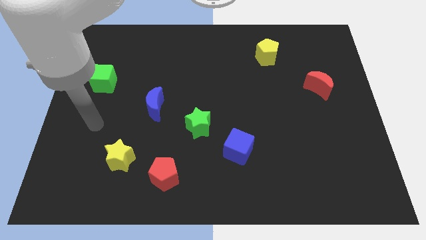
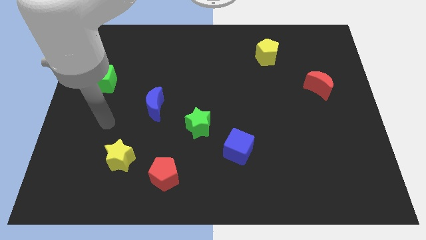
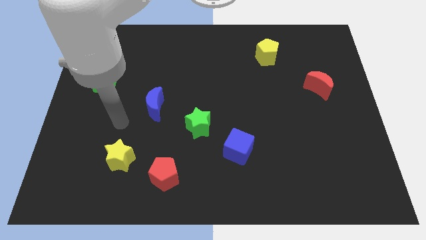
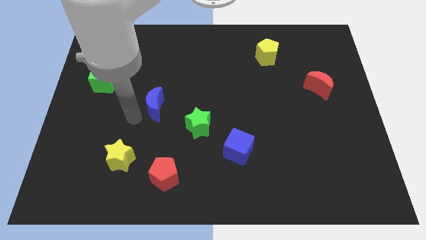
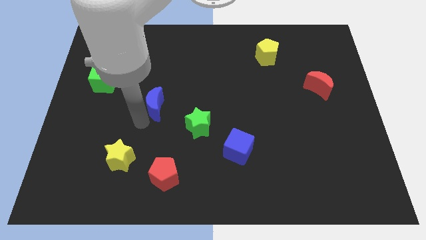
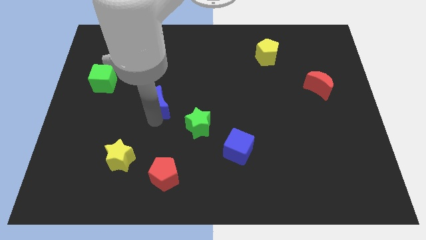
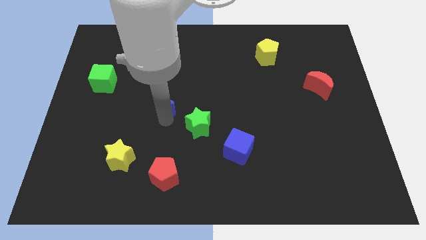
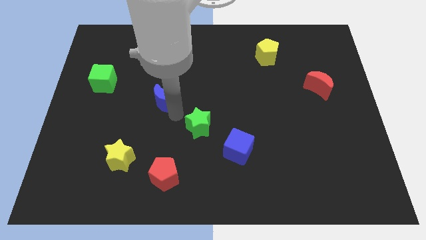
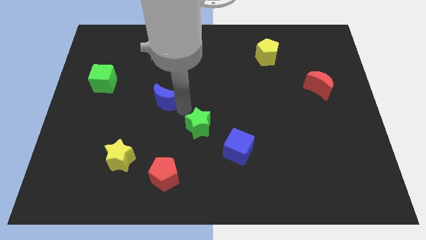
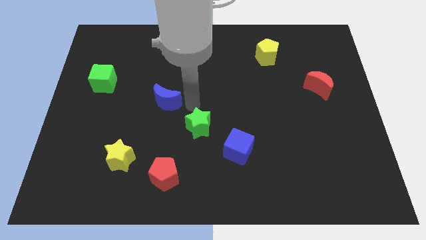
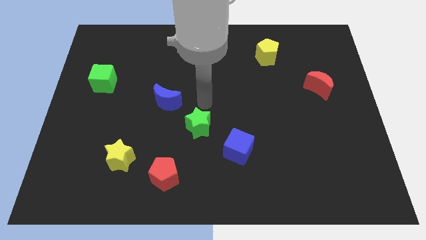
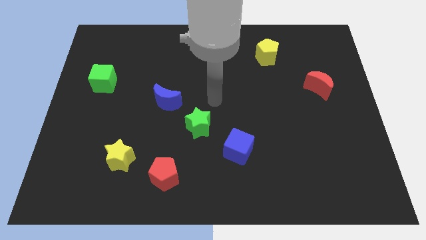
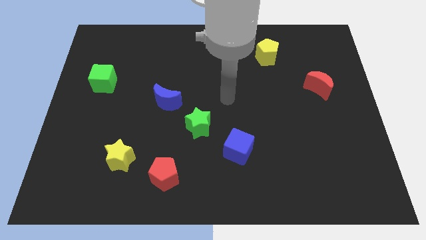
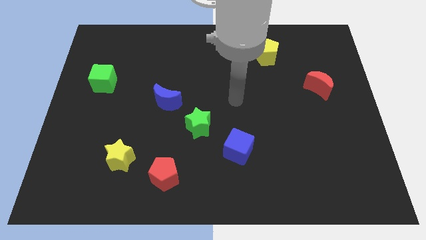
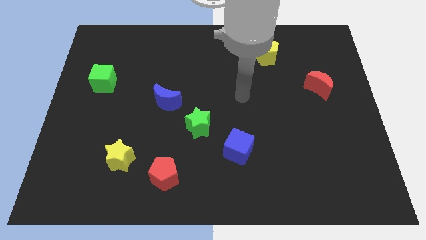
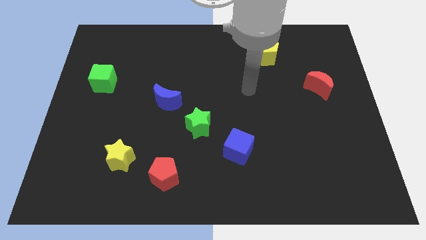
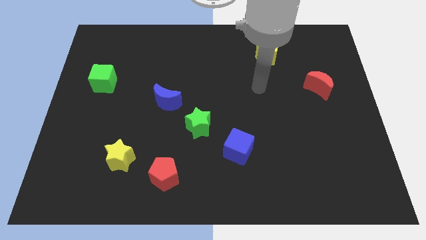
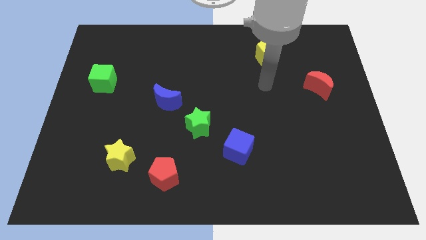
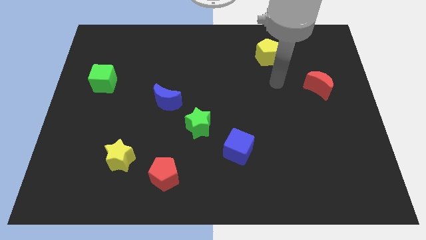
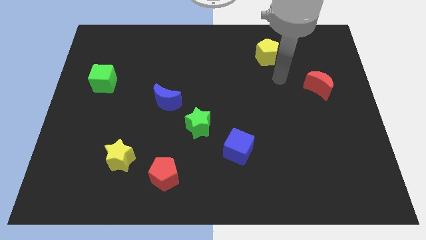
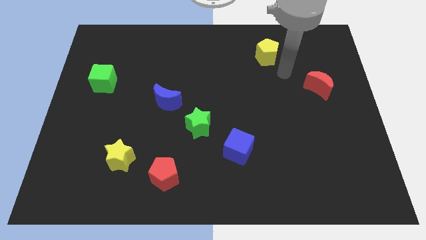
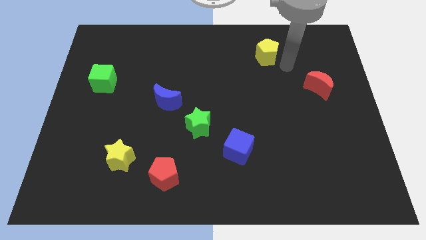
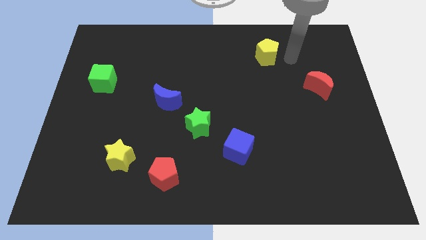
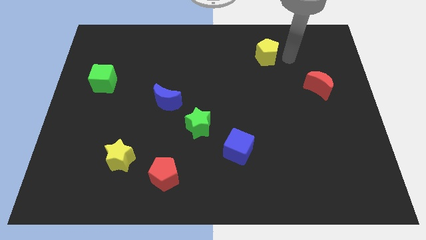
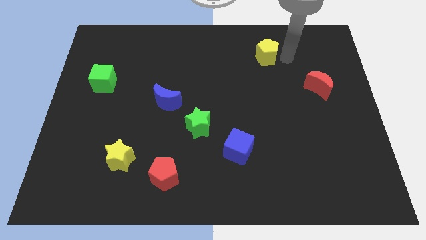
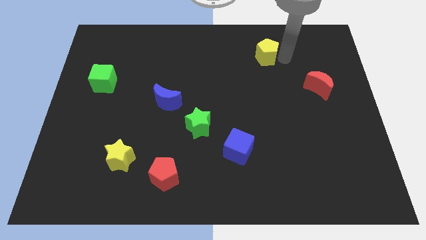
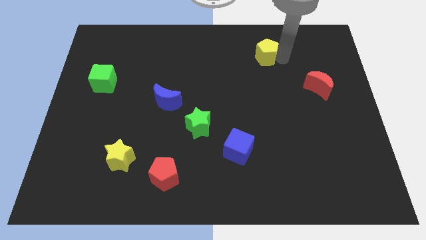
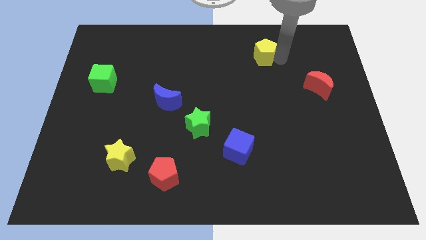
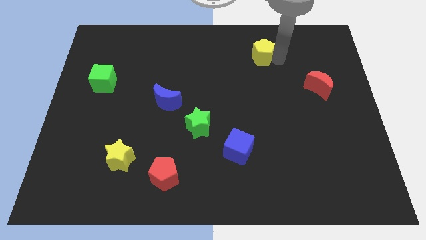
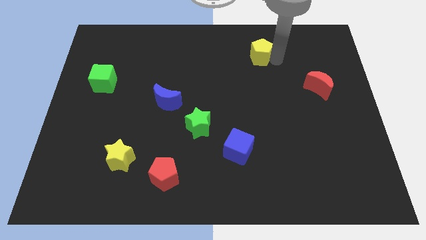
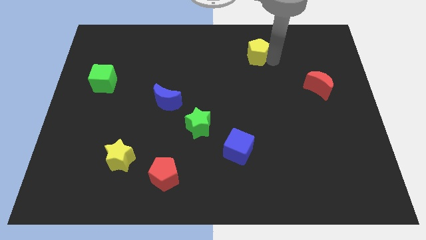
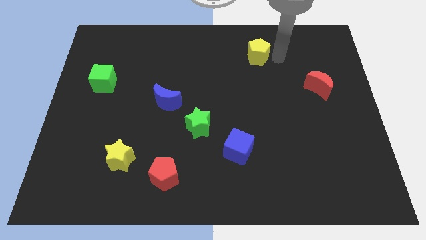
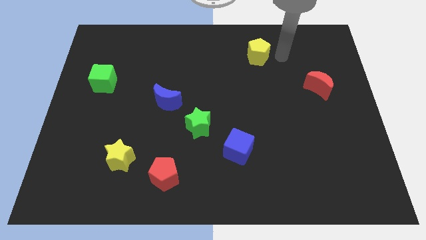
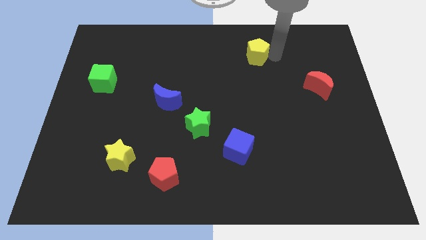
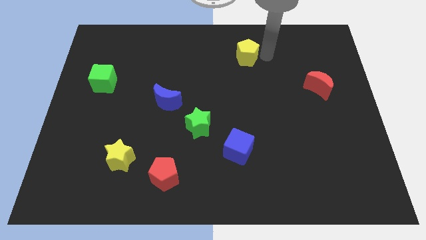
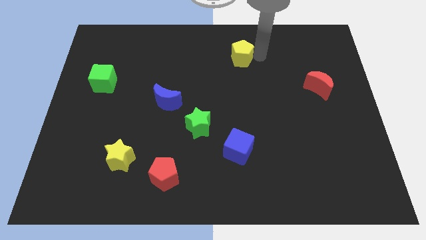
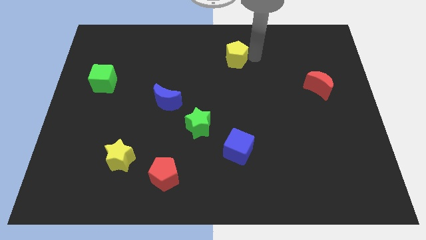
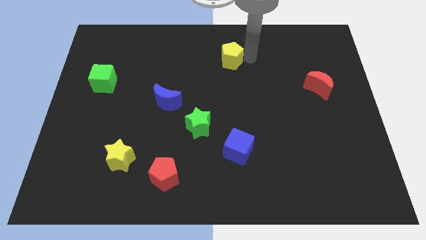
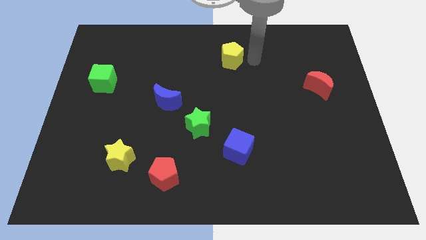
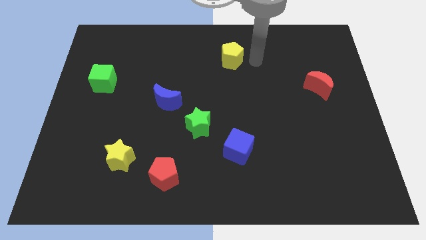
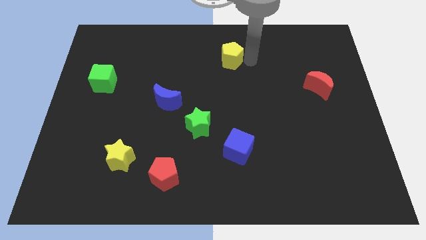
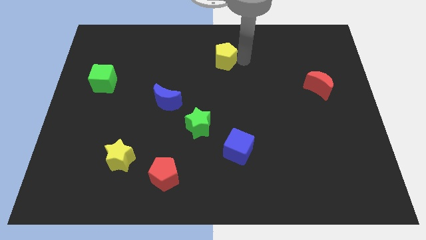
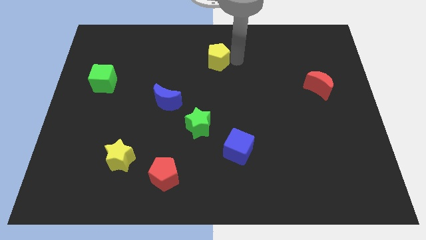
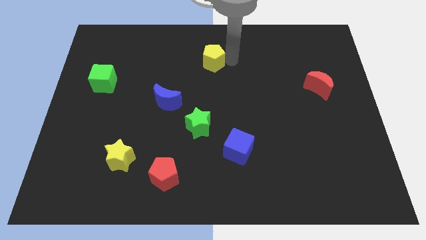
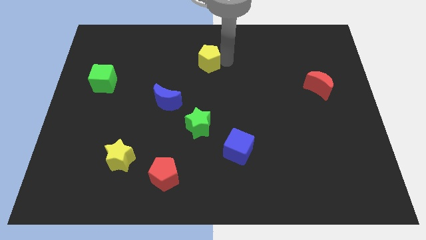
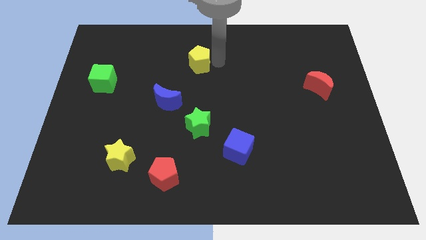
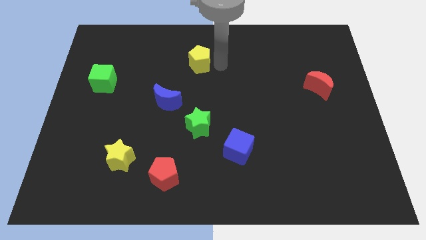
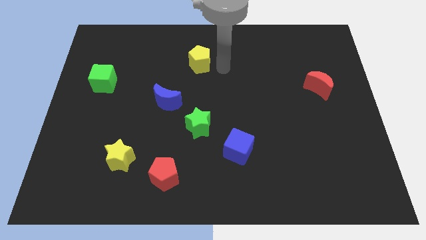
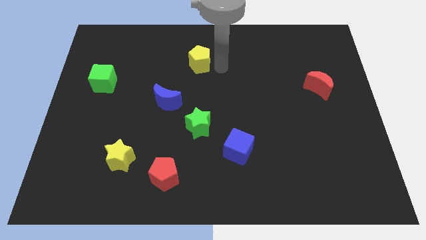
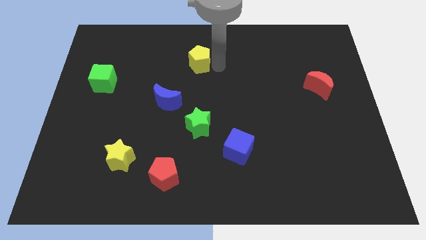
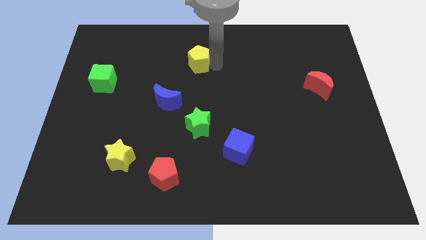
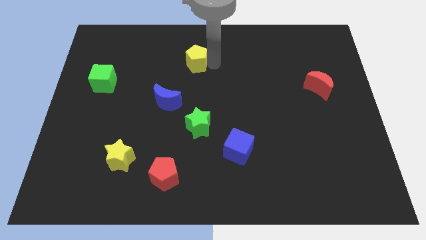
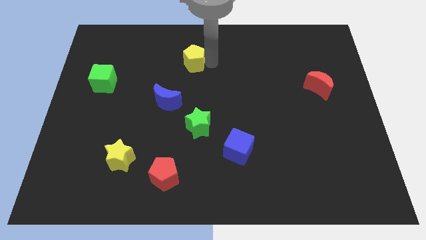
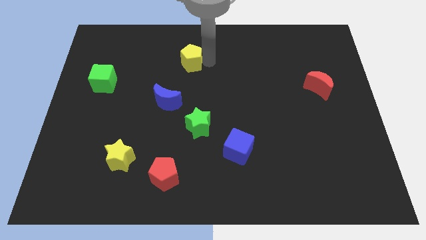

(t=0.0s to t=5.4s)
move the yellow pentagon left

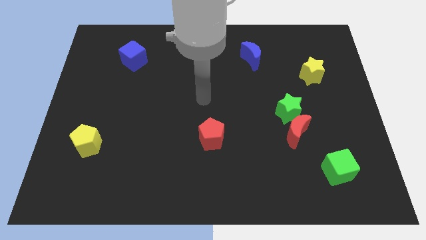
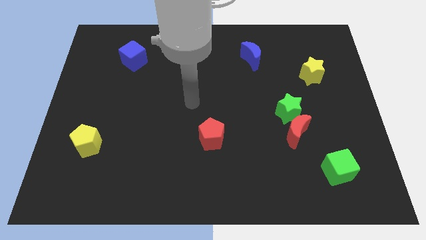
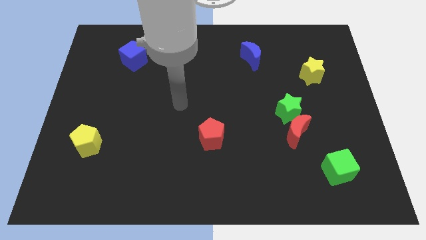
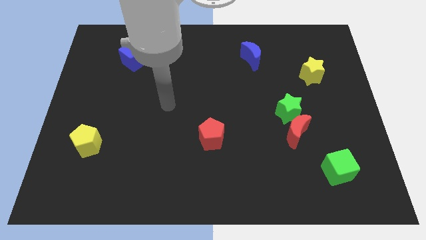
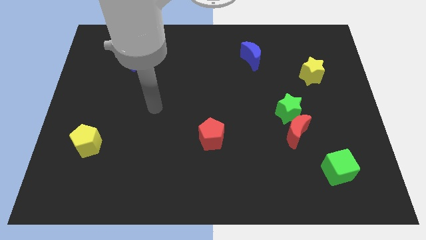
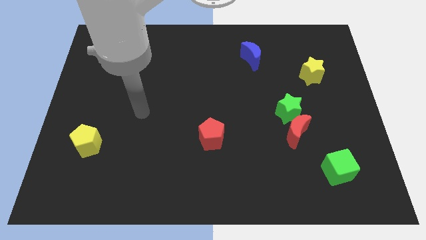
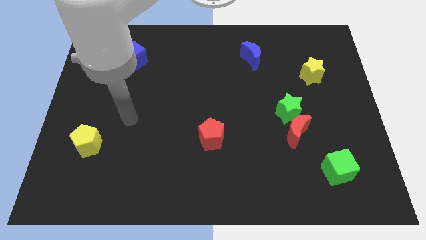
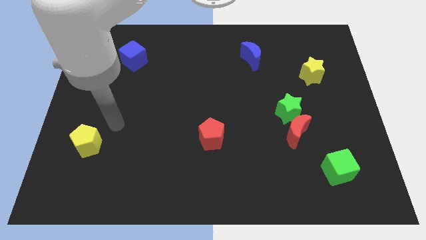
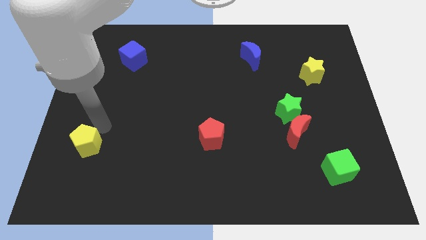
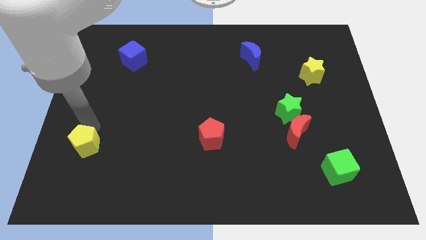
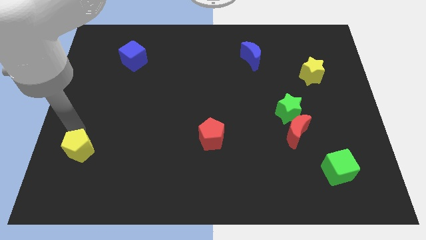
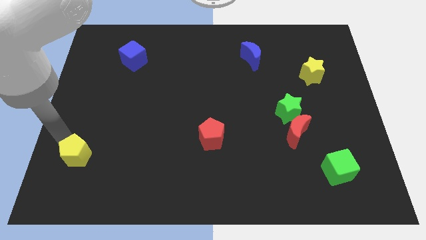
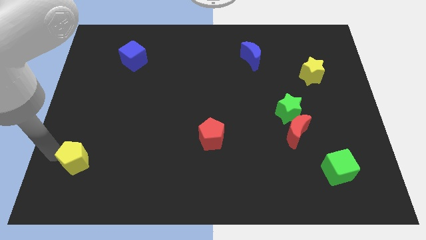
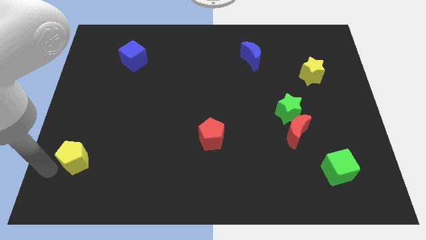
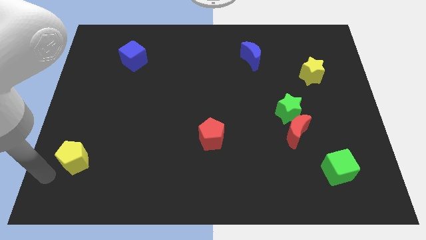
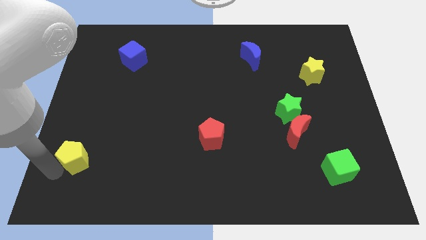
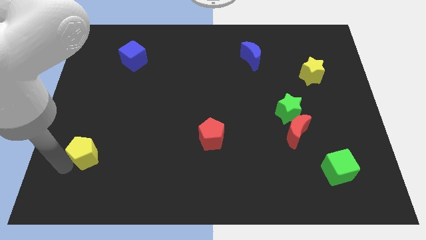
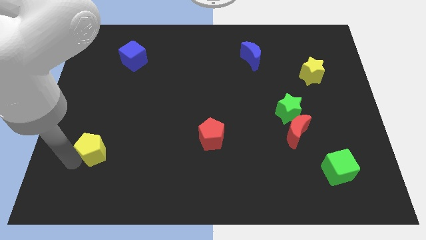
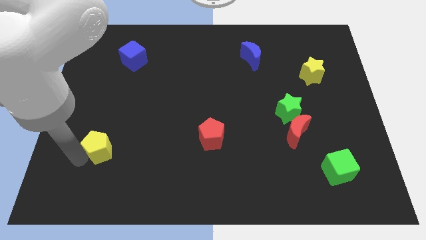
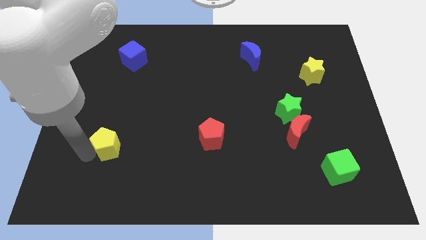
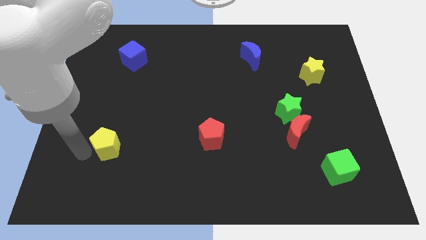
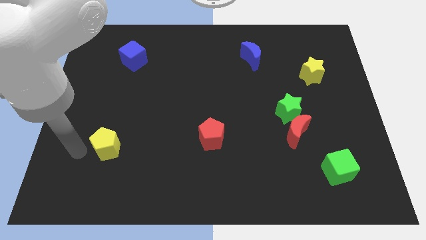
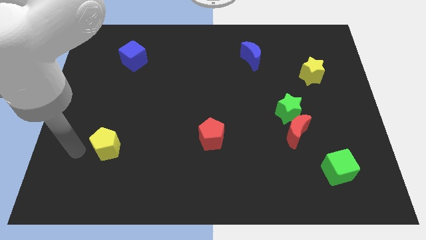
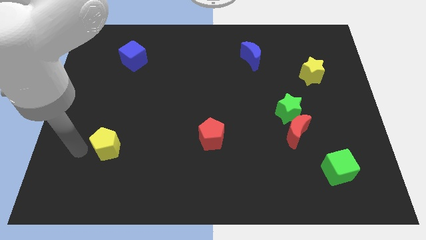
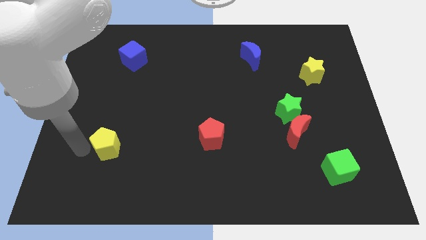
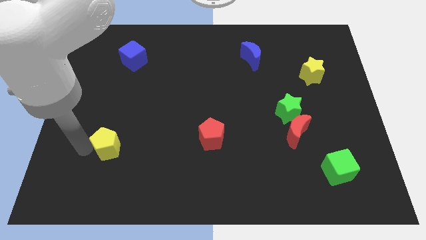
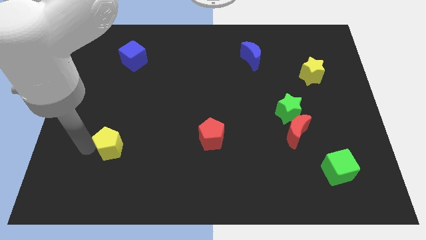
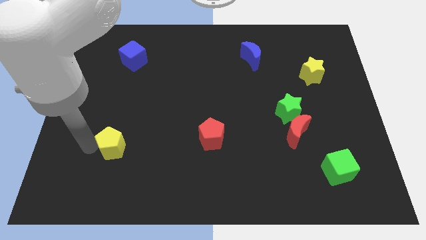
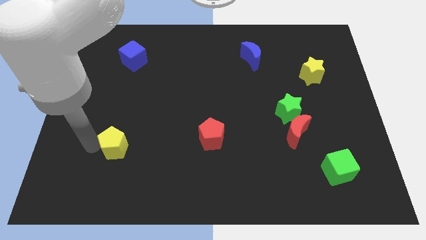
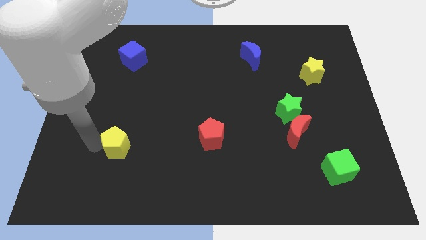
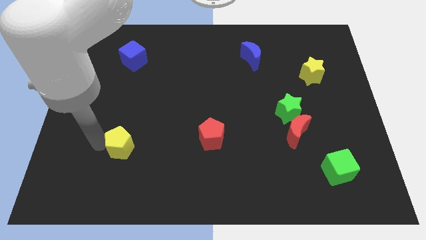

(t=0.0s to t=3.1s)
slightly move the yellow pentagon to the right
